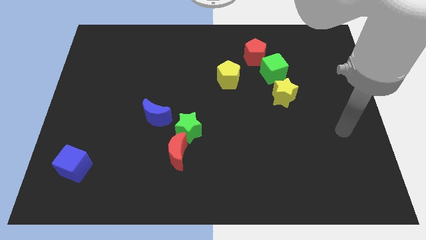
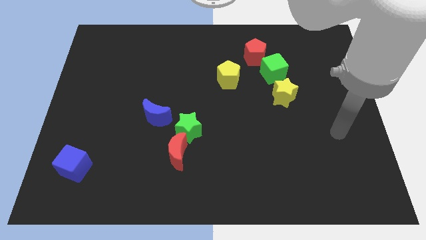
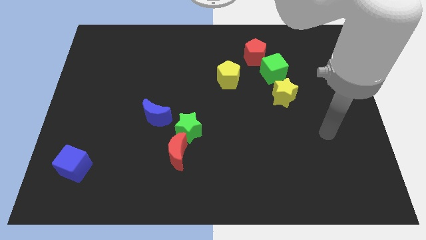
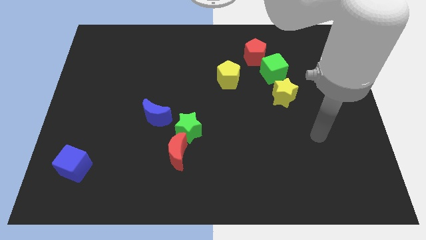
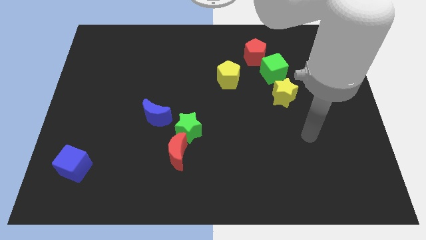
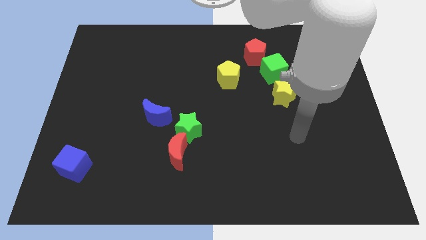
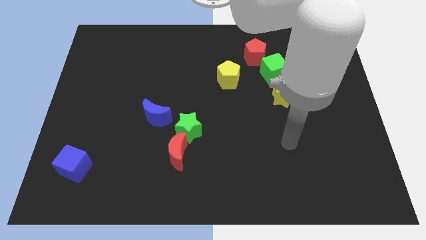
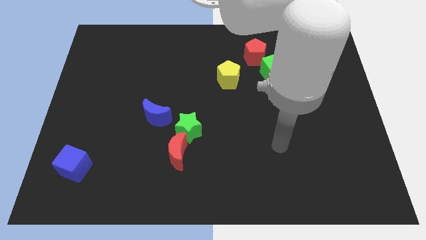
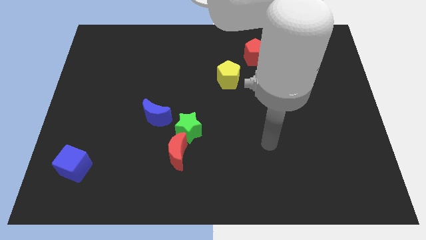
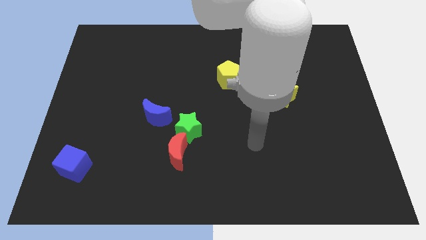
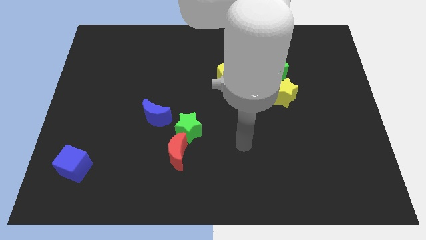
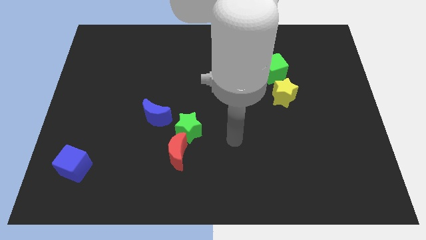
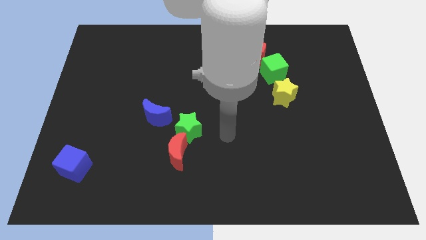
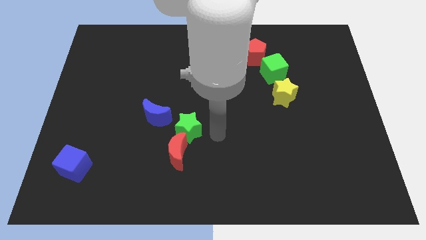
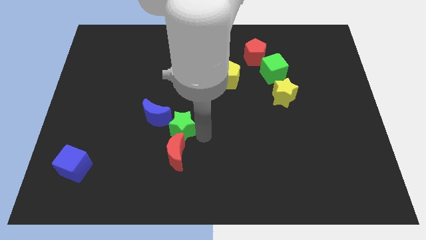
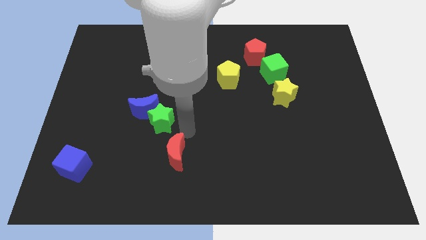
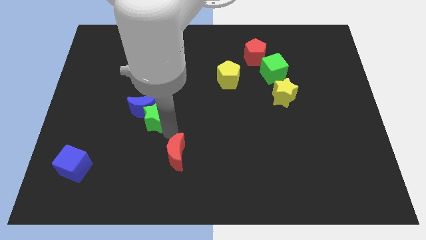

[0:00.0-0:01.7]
move the red moon away from the green star

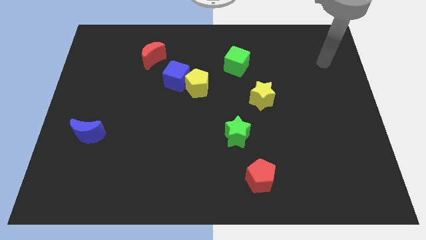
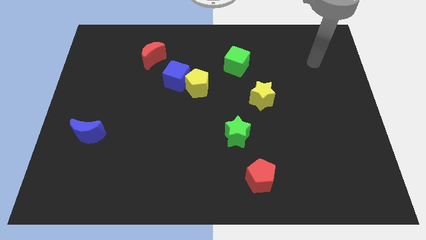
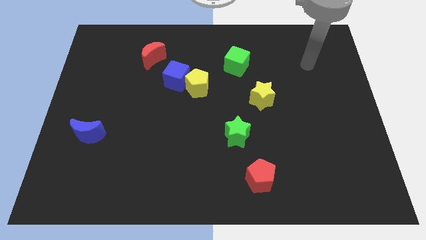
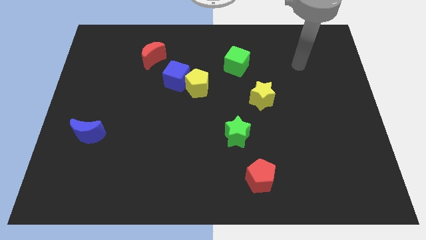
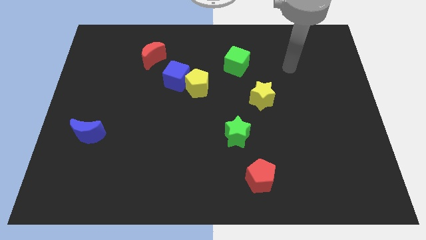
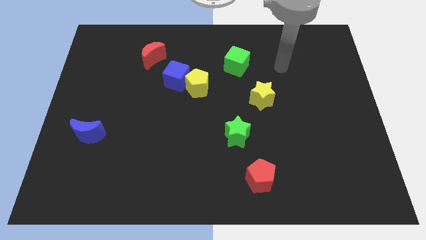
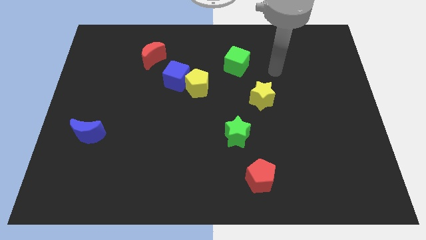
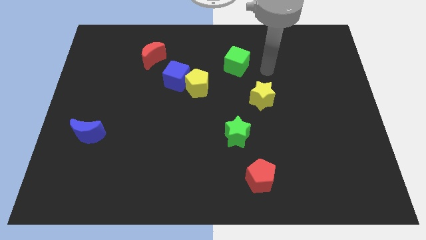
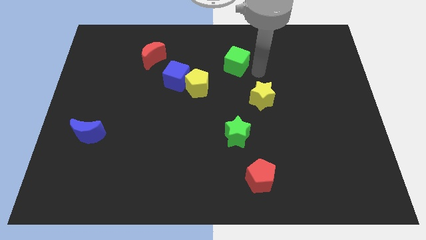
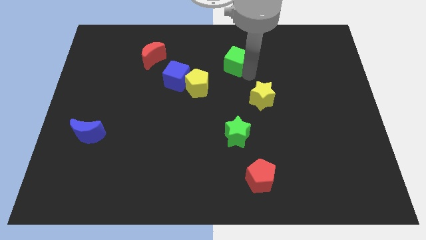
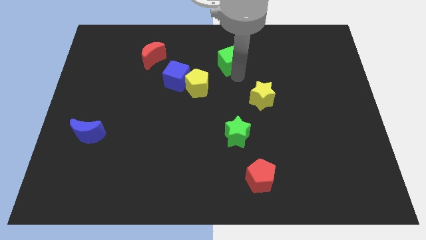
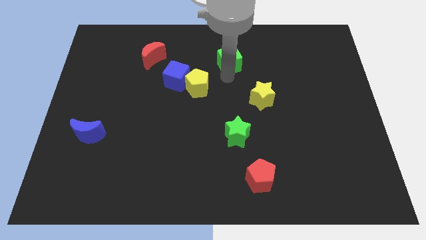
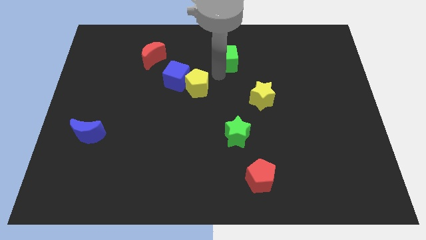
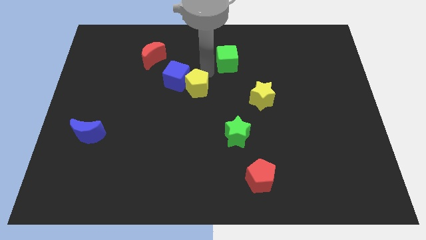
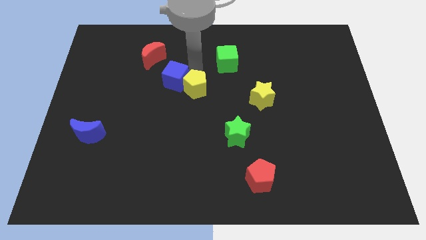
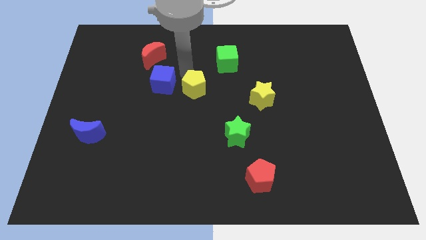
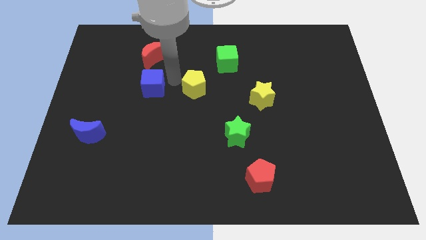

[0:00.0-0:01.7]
separate the yellow pentagon from the blue cube

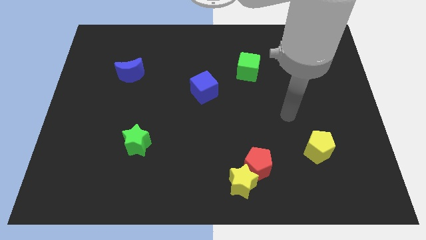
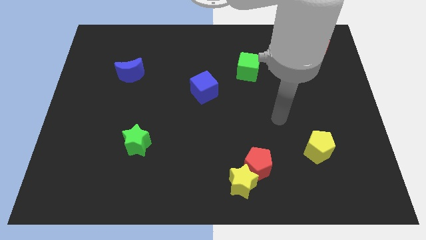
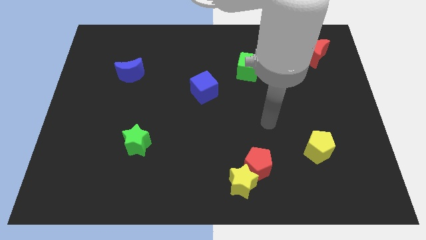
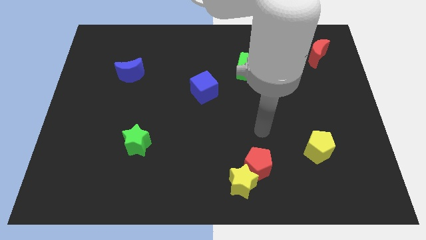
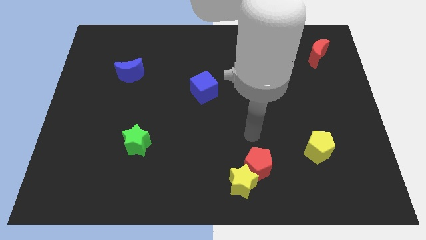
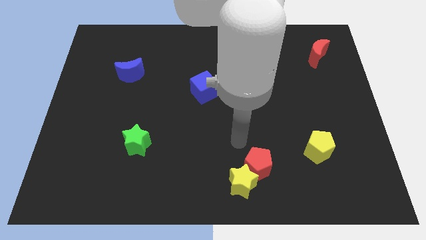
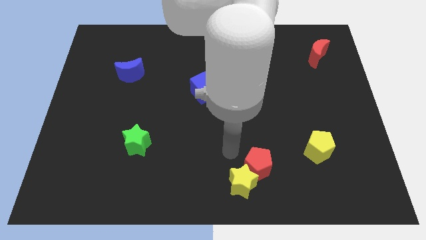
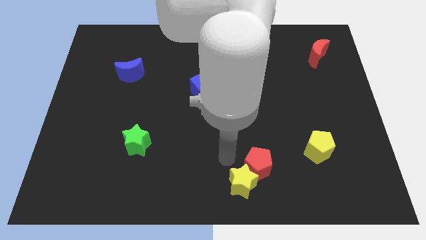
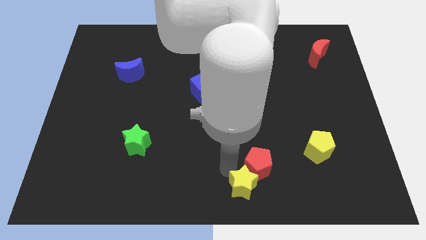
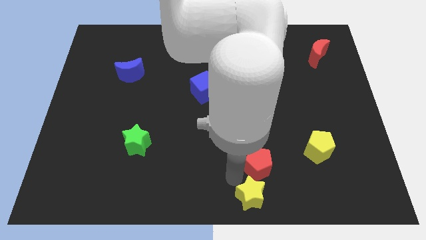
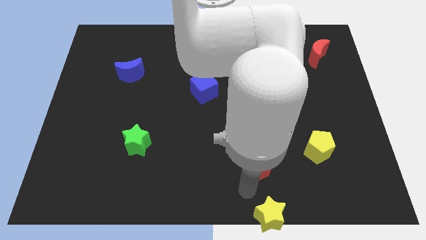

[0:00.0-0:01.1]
move the red pentagon away from the yellow star

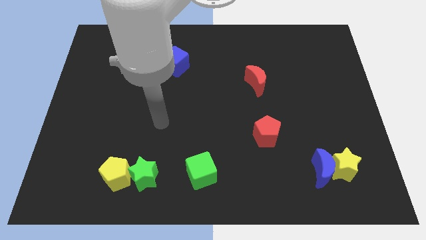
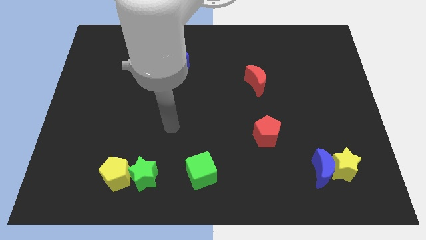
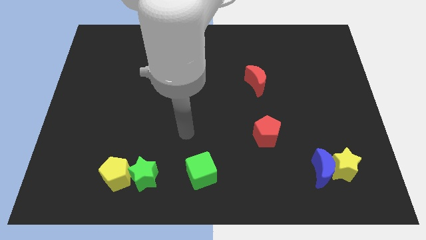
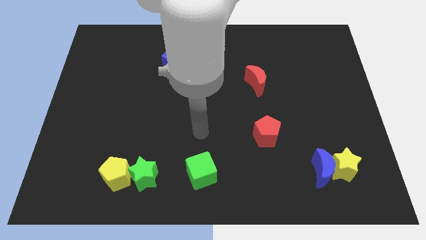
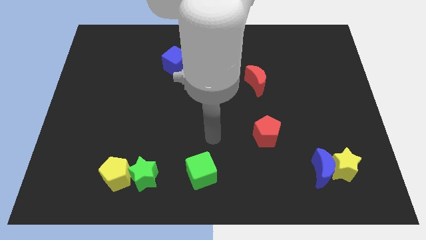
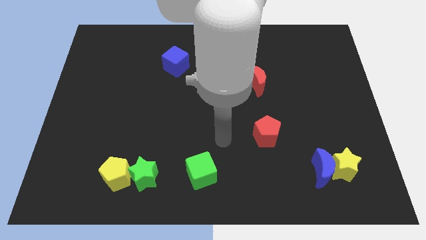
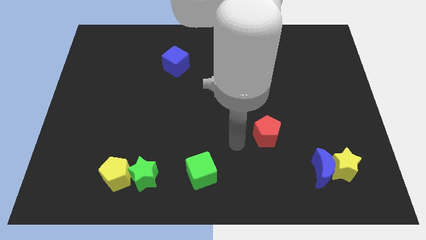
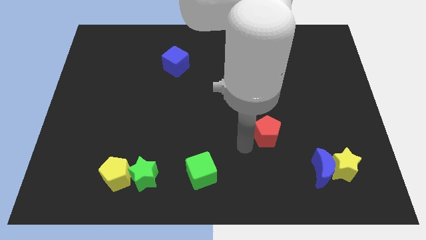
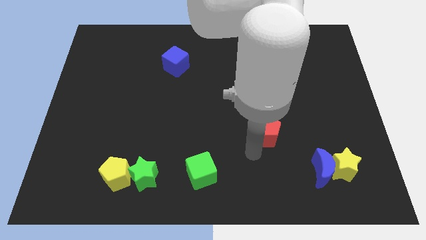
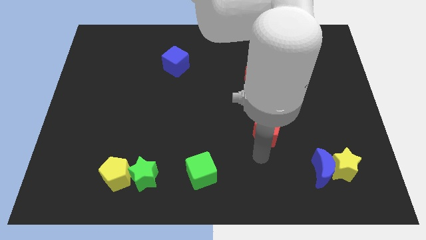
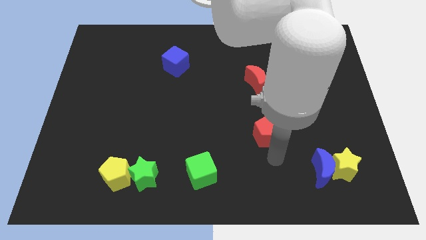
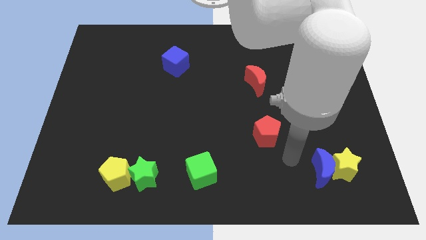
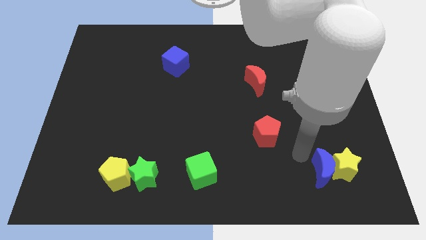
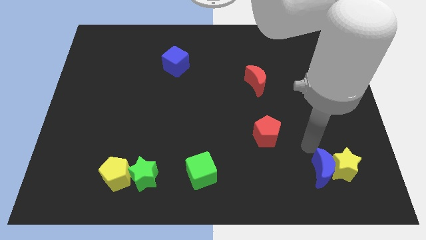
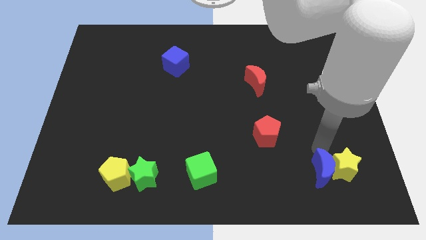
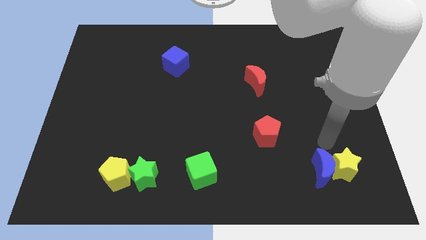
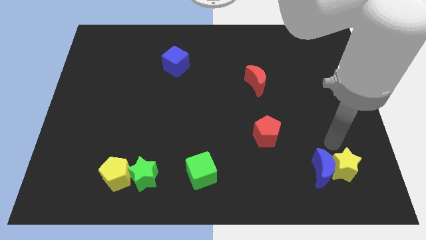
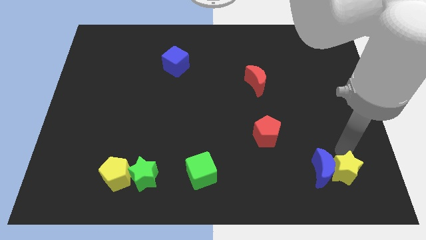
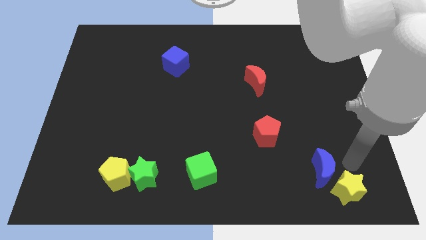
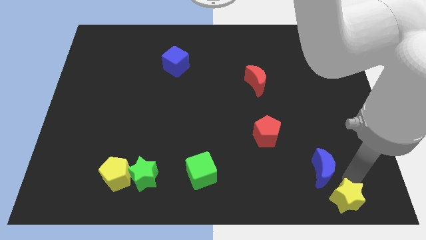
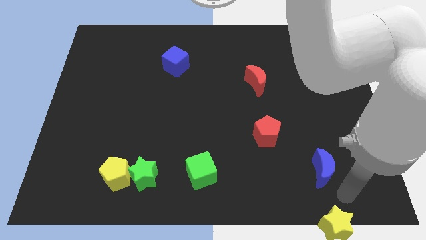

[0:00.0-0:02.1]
pull the blue moon apart from the yellow star

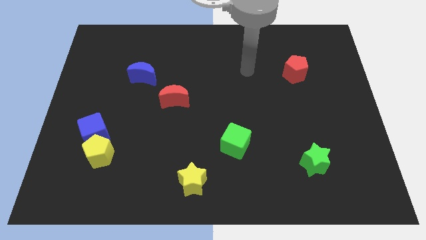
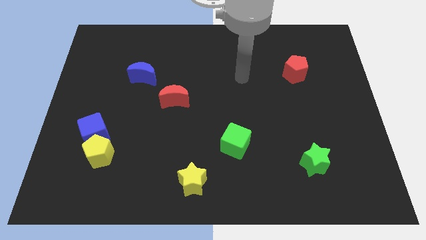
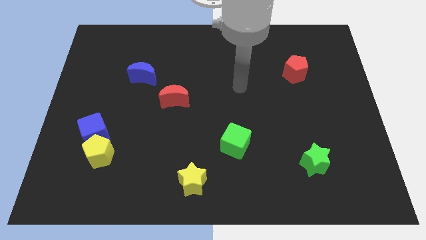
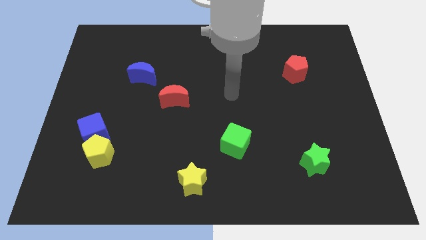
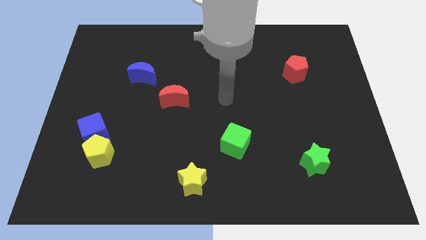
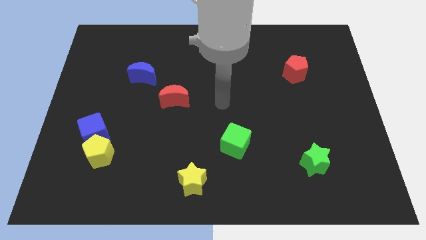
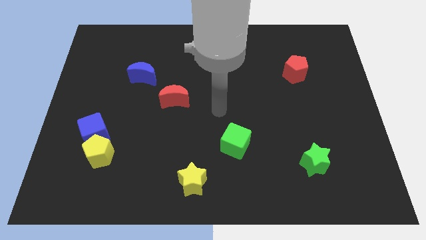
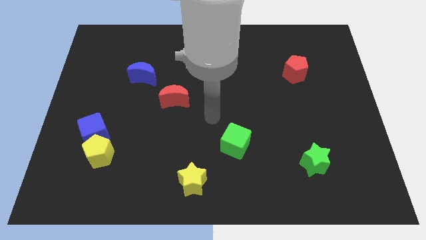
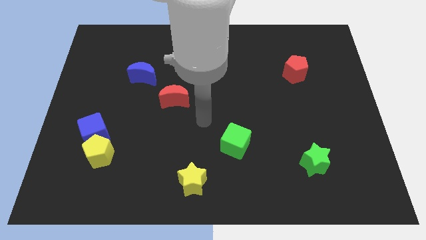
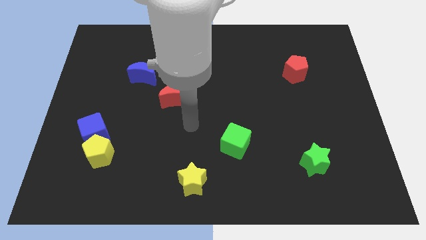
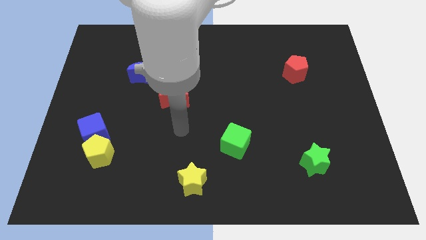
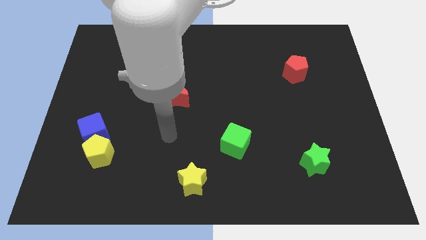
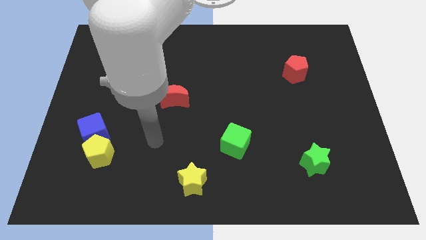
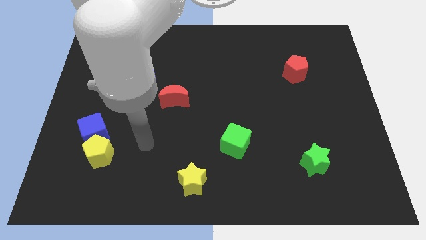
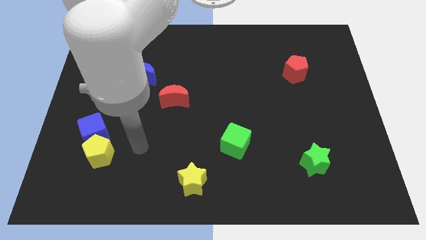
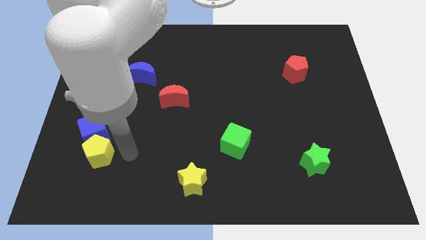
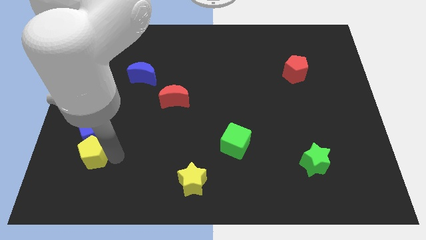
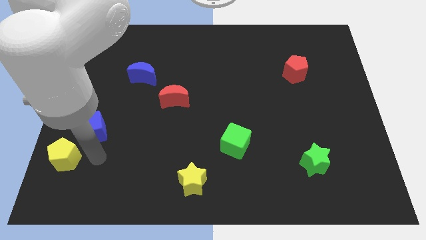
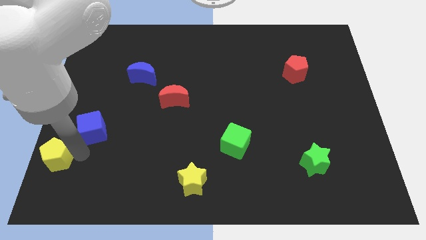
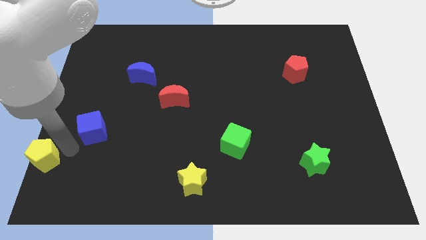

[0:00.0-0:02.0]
separate the blue cube from the yellow pentagon

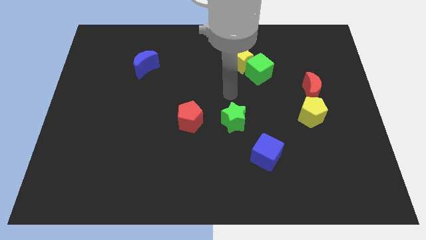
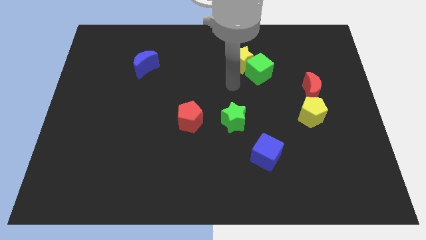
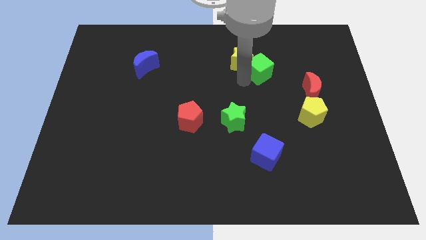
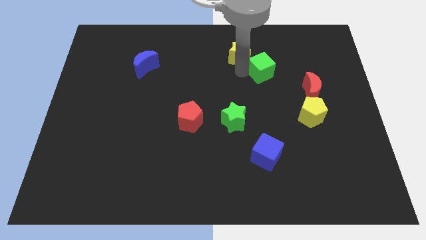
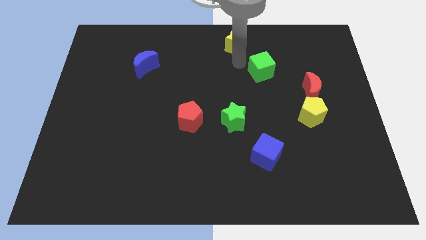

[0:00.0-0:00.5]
pull the green cube apart from the yellow star

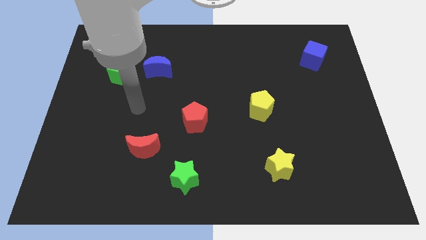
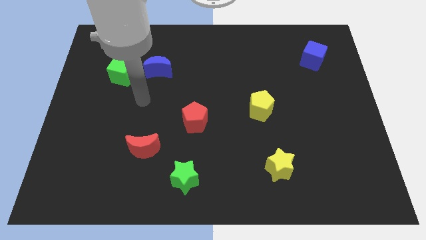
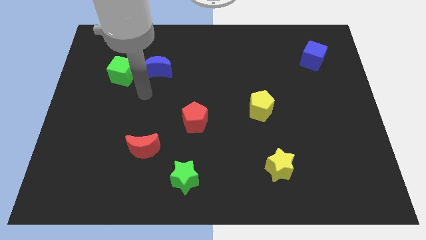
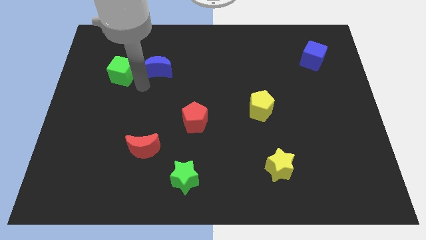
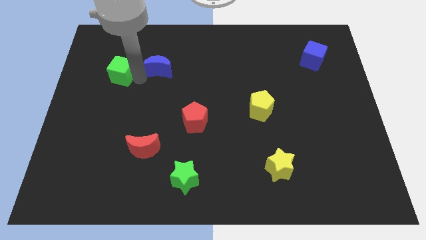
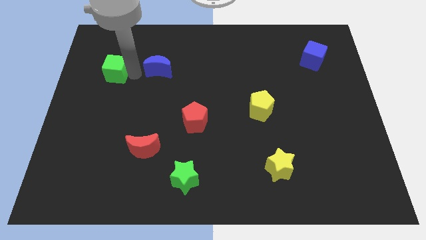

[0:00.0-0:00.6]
separate the blue moon from the green cube
